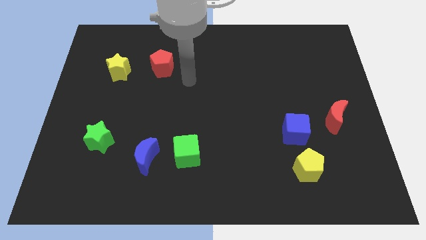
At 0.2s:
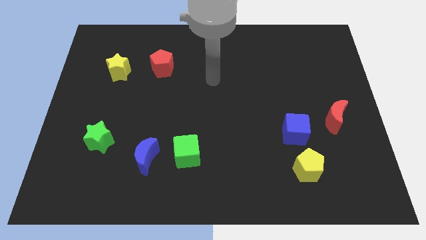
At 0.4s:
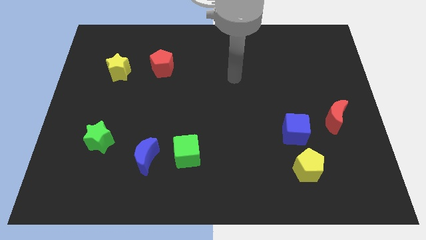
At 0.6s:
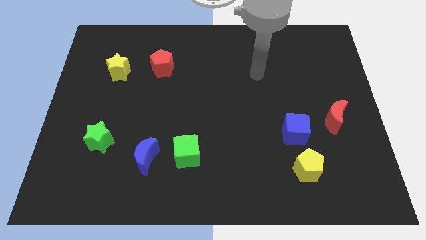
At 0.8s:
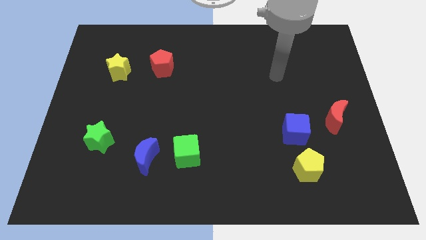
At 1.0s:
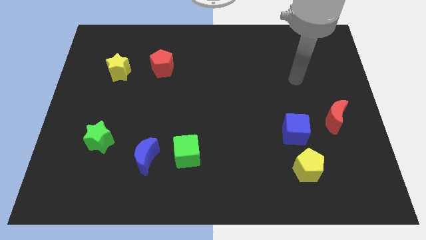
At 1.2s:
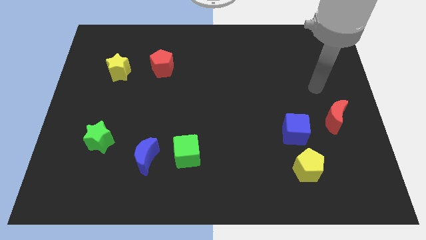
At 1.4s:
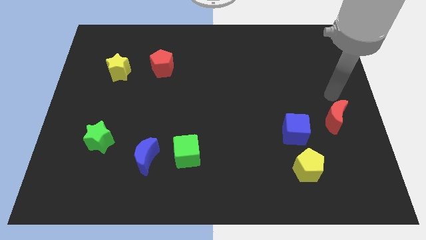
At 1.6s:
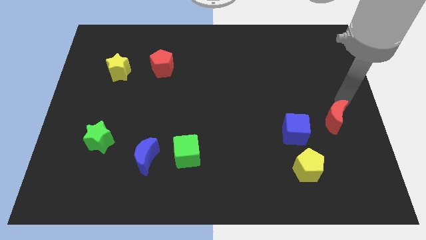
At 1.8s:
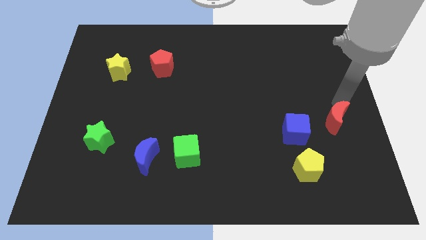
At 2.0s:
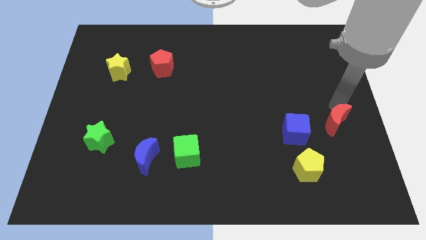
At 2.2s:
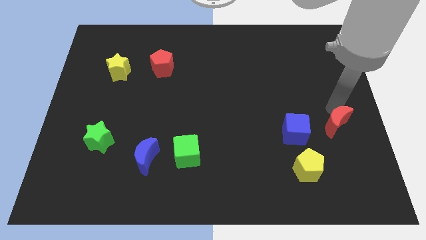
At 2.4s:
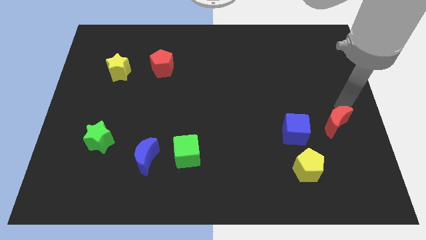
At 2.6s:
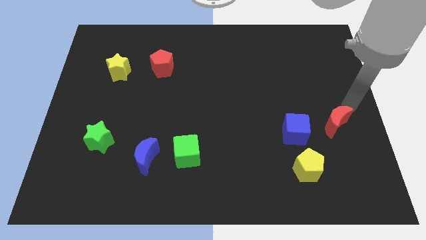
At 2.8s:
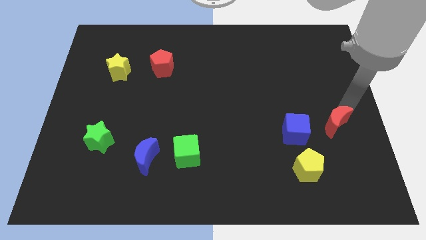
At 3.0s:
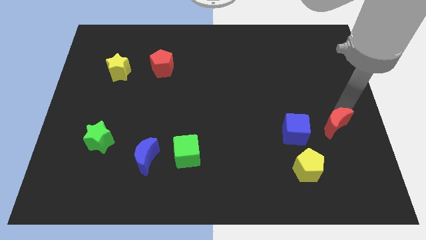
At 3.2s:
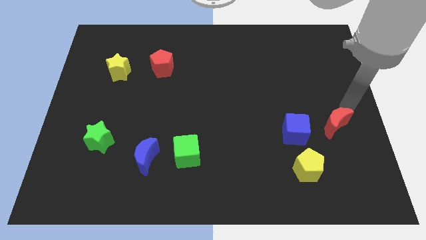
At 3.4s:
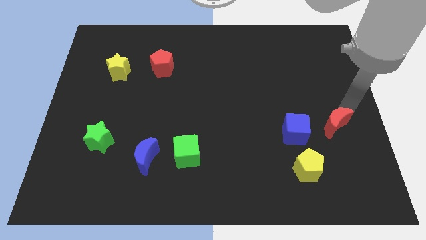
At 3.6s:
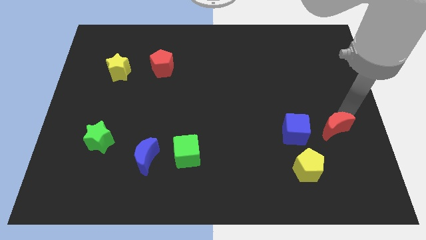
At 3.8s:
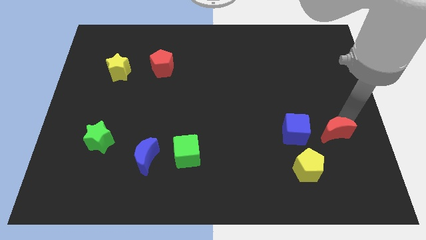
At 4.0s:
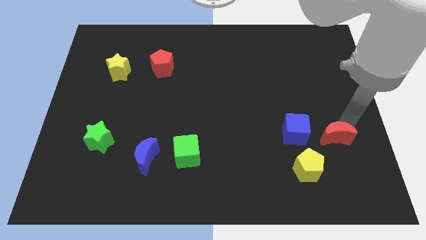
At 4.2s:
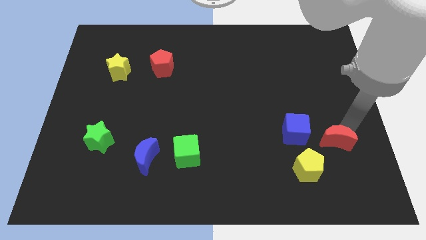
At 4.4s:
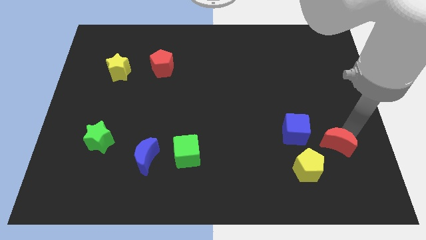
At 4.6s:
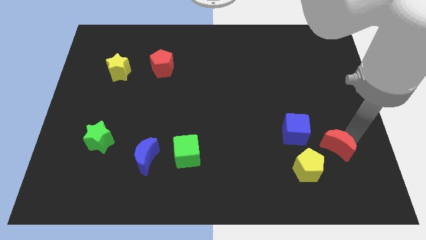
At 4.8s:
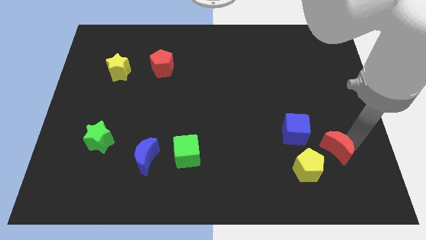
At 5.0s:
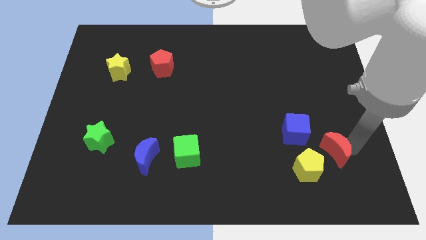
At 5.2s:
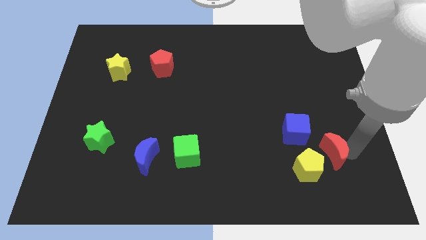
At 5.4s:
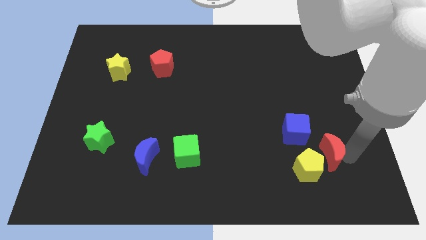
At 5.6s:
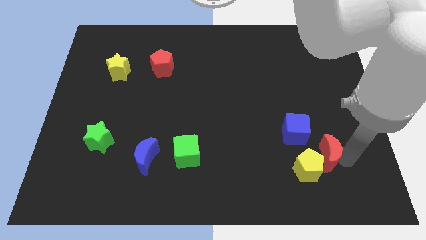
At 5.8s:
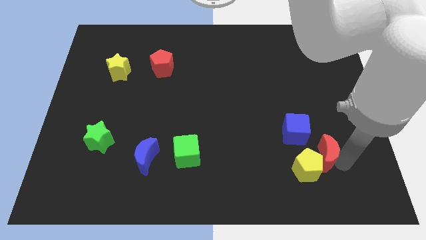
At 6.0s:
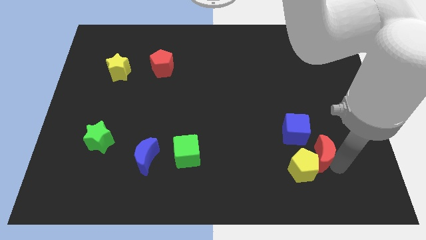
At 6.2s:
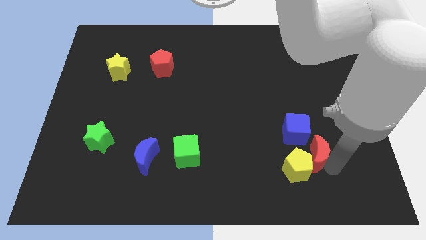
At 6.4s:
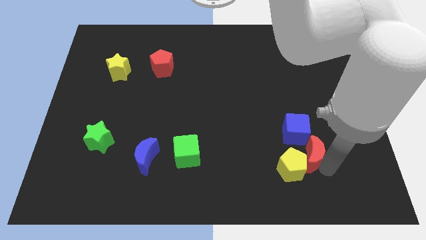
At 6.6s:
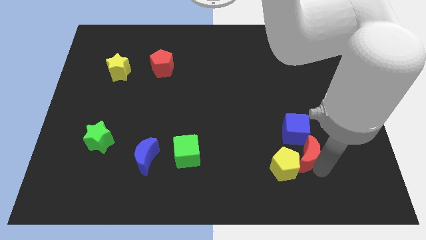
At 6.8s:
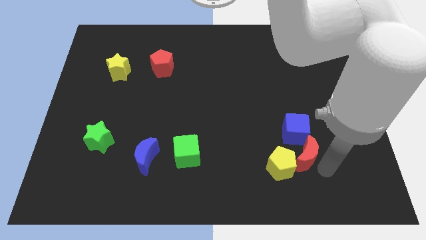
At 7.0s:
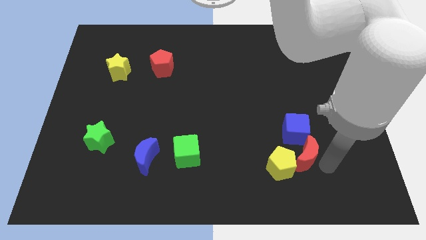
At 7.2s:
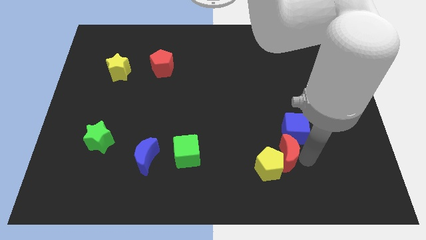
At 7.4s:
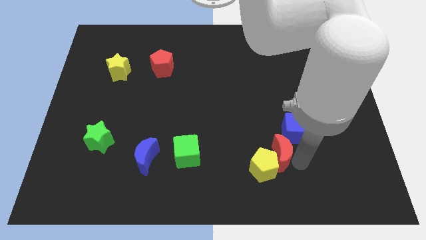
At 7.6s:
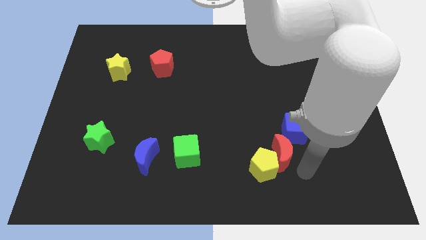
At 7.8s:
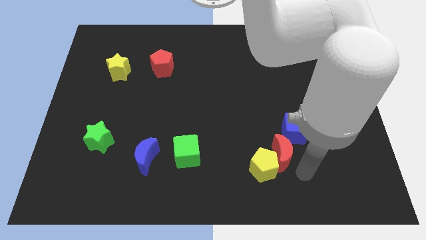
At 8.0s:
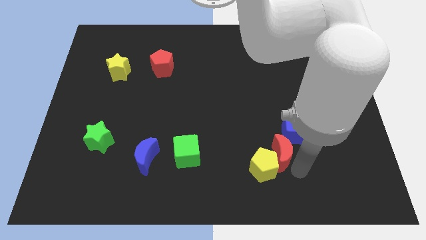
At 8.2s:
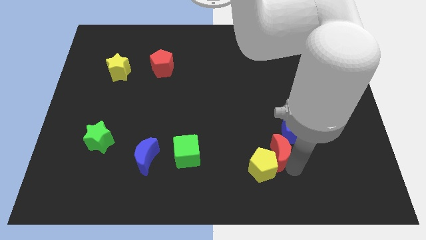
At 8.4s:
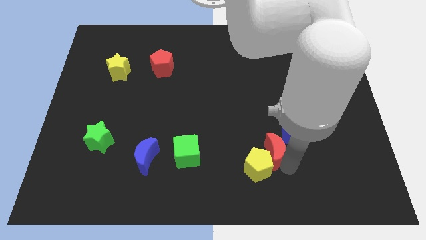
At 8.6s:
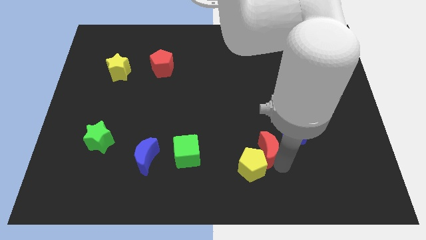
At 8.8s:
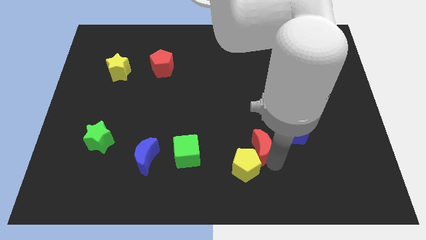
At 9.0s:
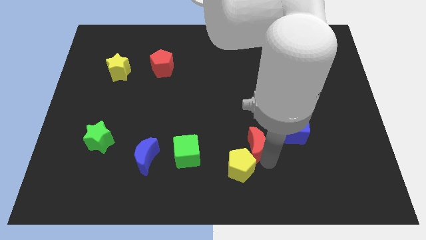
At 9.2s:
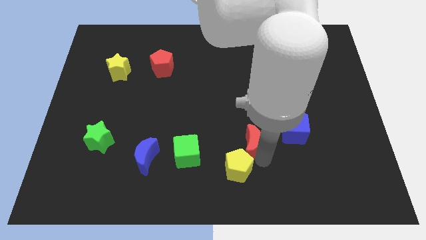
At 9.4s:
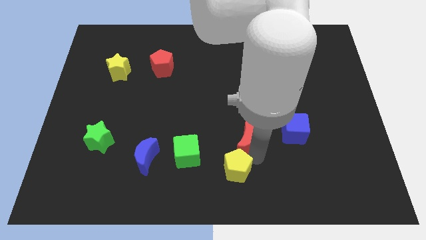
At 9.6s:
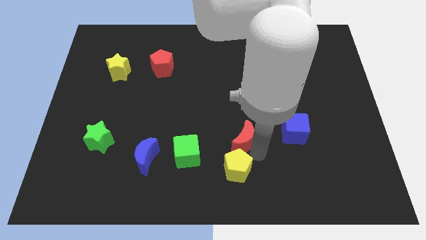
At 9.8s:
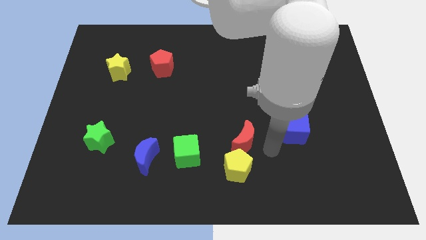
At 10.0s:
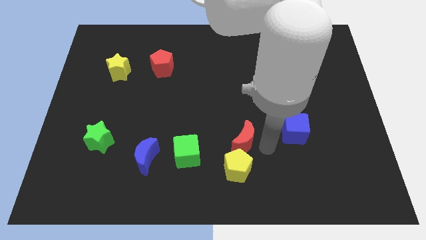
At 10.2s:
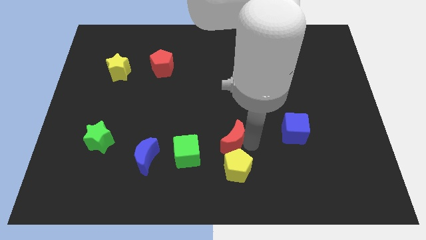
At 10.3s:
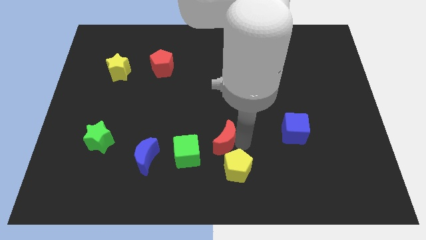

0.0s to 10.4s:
slide the red moon diagonally up and to the right of the green cube

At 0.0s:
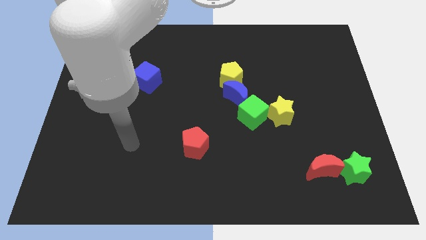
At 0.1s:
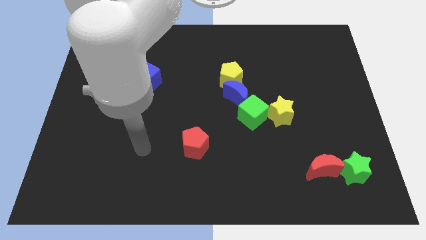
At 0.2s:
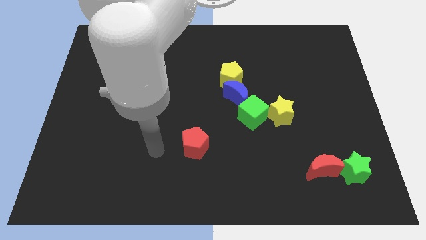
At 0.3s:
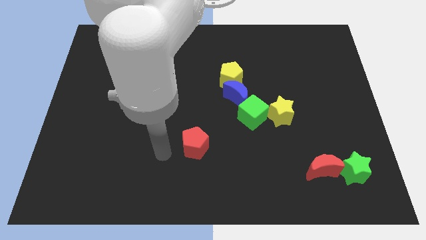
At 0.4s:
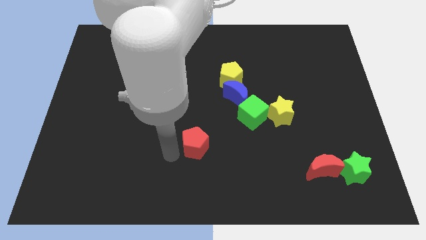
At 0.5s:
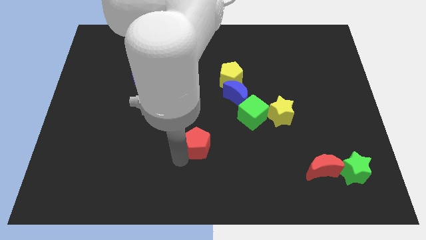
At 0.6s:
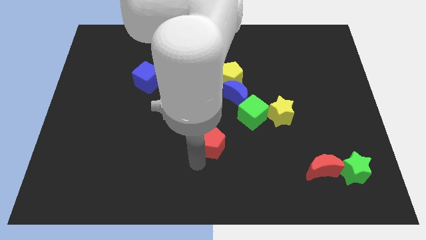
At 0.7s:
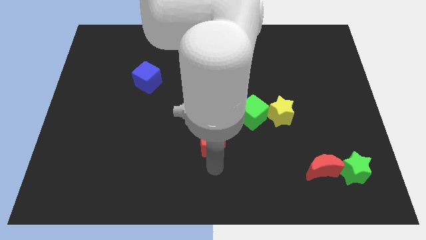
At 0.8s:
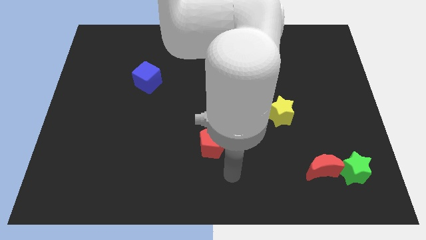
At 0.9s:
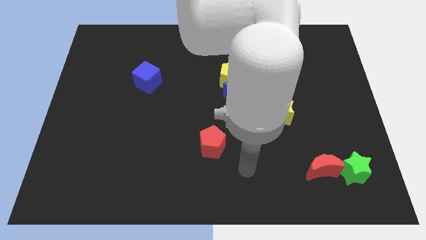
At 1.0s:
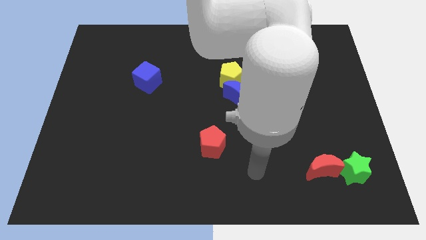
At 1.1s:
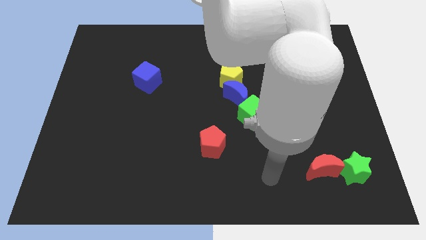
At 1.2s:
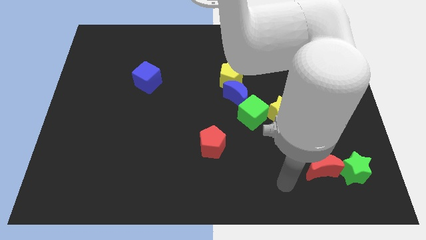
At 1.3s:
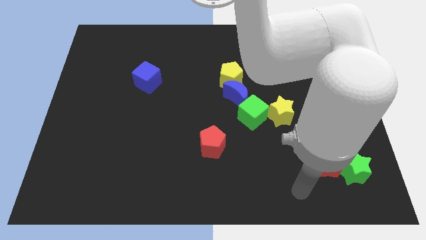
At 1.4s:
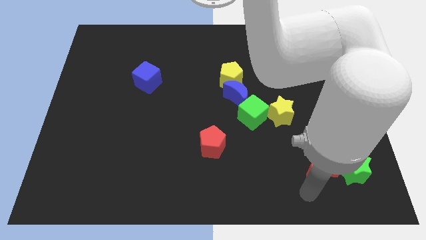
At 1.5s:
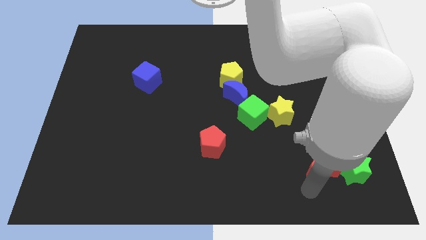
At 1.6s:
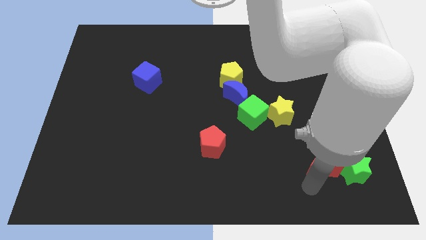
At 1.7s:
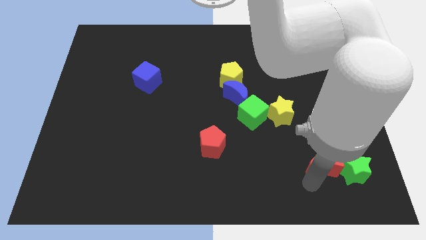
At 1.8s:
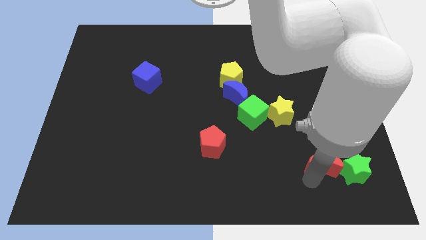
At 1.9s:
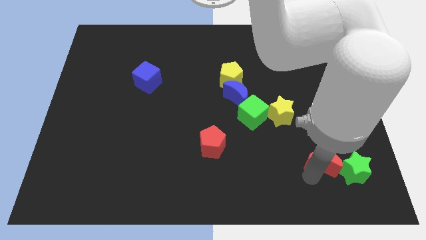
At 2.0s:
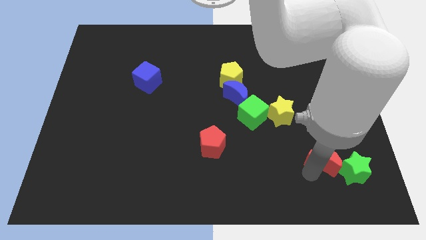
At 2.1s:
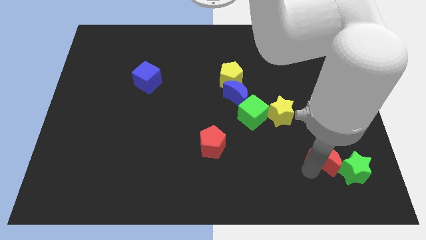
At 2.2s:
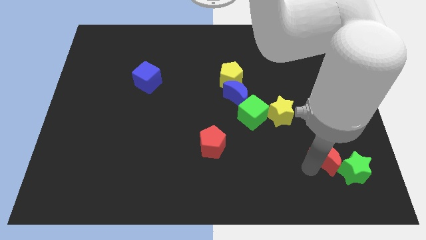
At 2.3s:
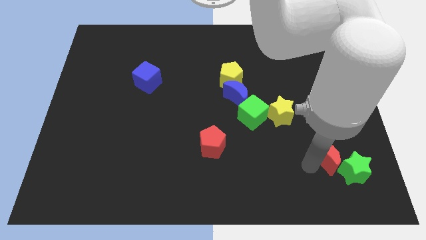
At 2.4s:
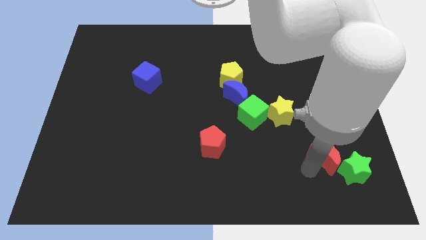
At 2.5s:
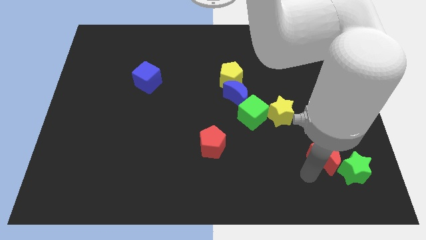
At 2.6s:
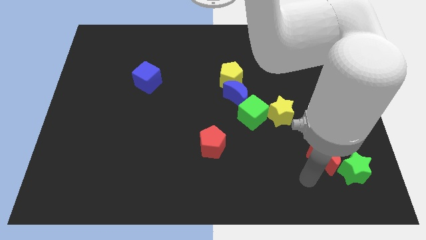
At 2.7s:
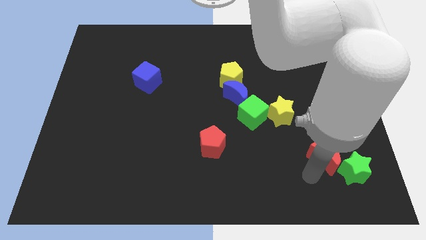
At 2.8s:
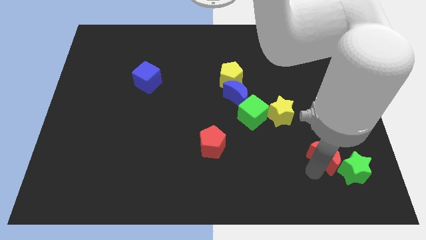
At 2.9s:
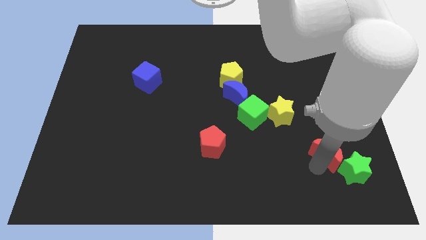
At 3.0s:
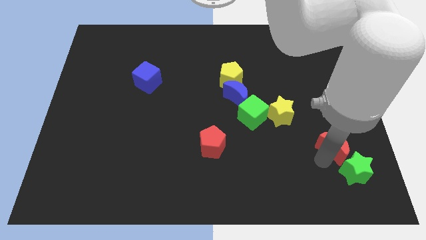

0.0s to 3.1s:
put the red moon above the green star
